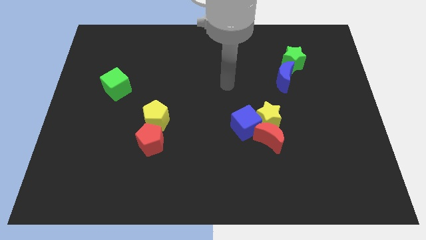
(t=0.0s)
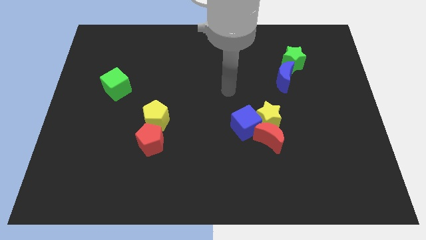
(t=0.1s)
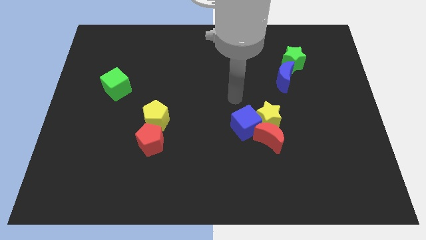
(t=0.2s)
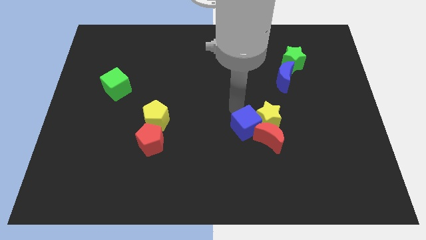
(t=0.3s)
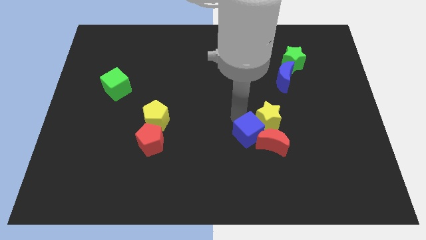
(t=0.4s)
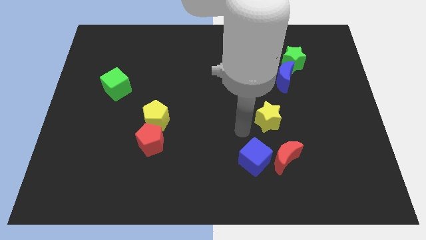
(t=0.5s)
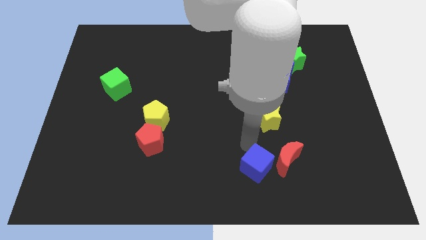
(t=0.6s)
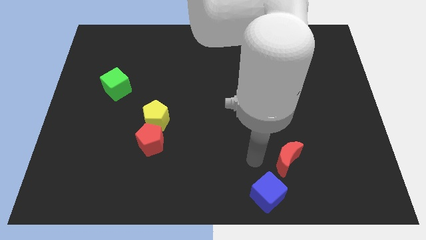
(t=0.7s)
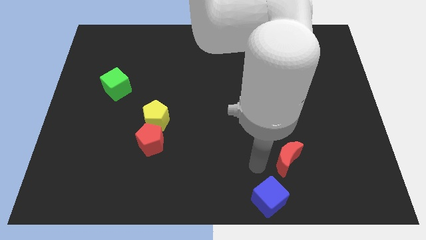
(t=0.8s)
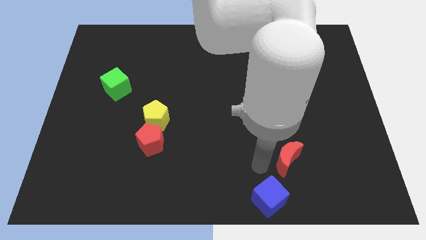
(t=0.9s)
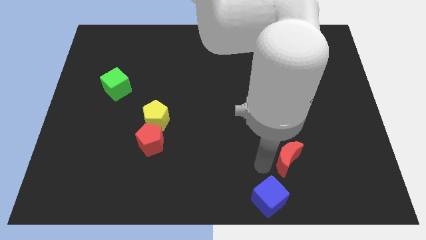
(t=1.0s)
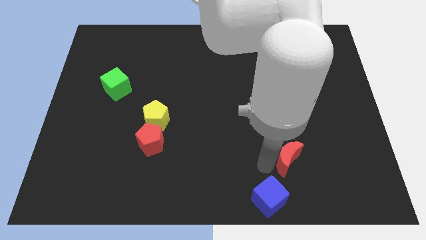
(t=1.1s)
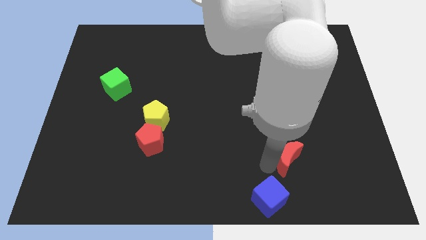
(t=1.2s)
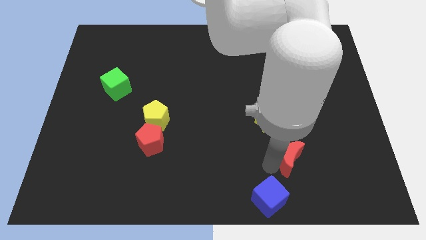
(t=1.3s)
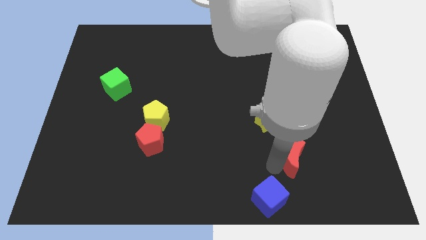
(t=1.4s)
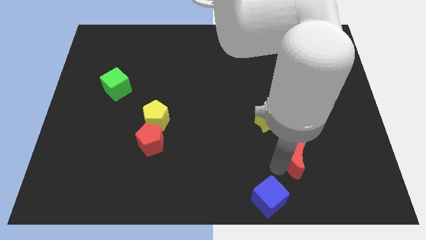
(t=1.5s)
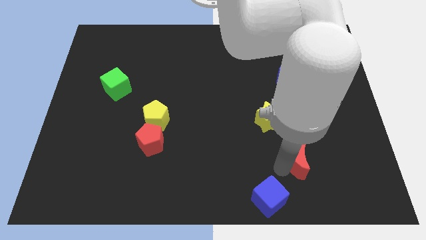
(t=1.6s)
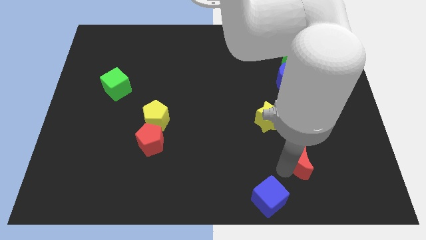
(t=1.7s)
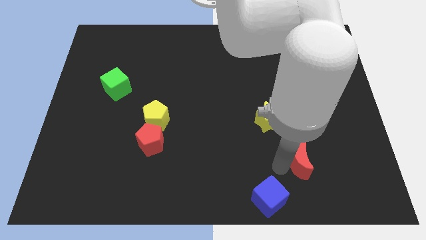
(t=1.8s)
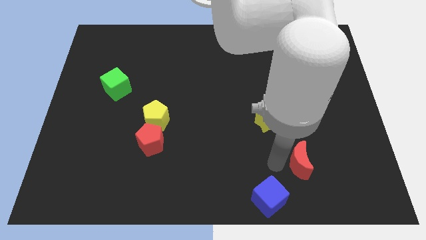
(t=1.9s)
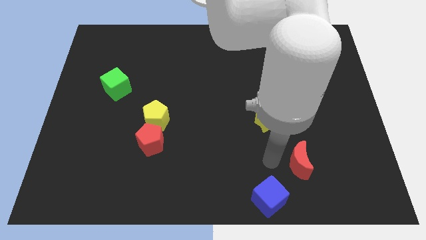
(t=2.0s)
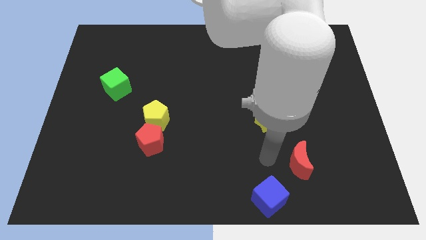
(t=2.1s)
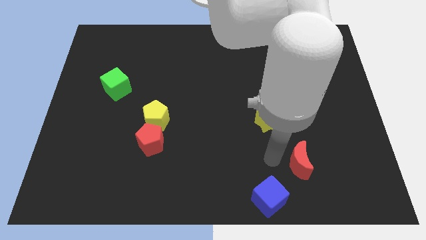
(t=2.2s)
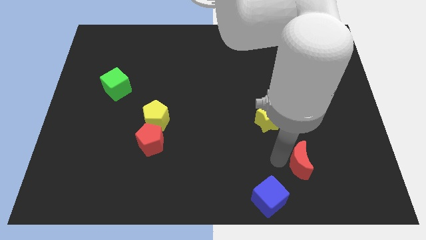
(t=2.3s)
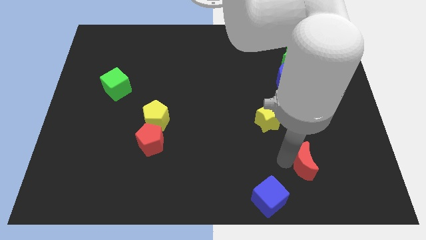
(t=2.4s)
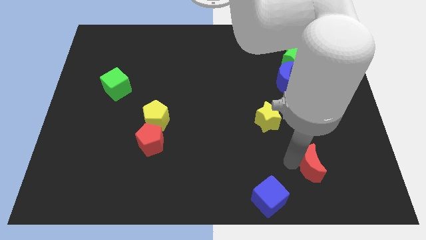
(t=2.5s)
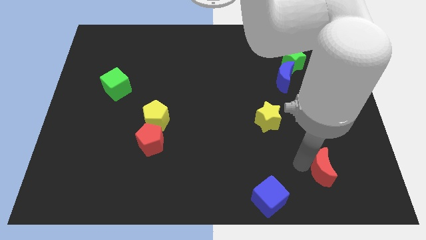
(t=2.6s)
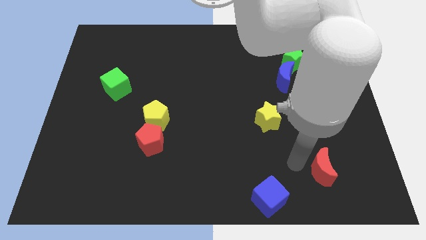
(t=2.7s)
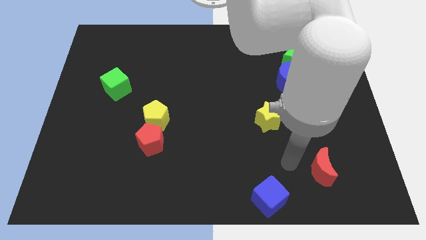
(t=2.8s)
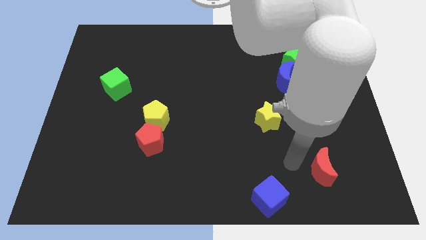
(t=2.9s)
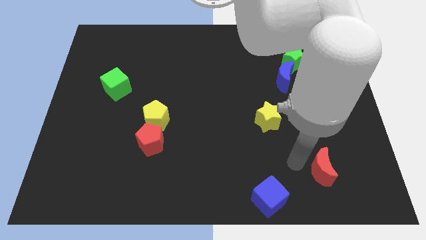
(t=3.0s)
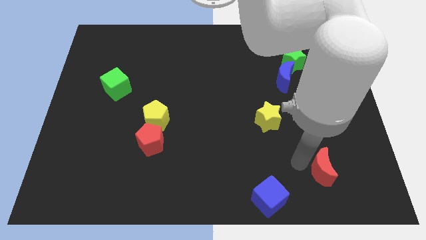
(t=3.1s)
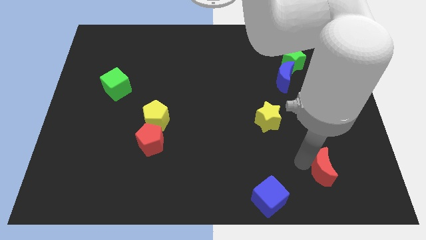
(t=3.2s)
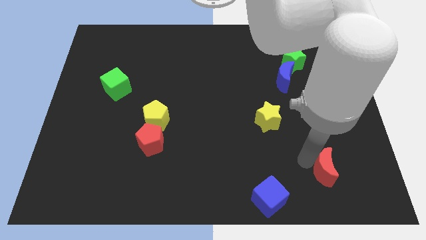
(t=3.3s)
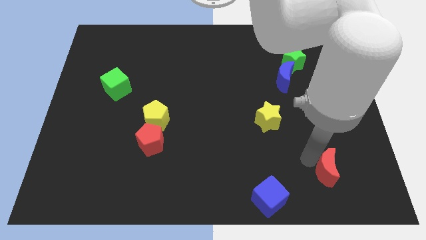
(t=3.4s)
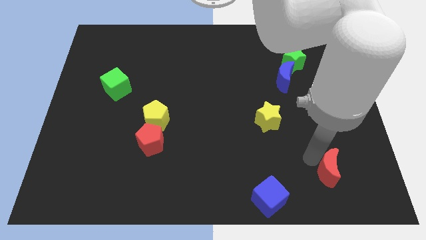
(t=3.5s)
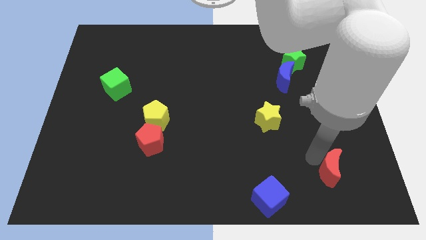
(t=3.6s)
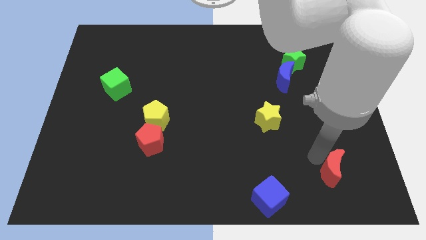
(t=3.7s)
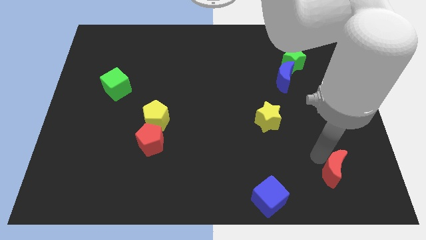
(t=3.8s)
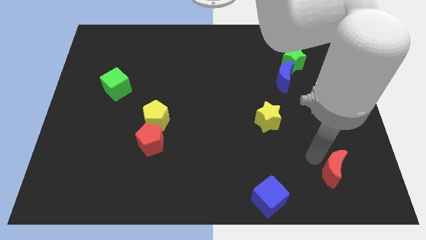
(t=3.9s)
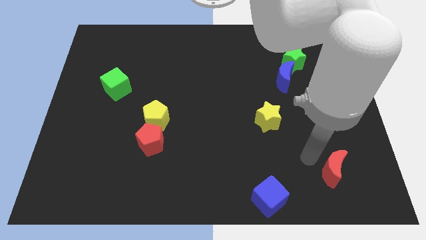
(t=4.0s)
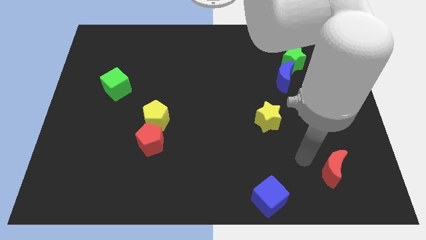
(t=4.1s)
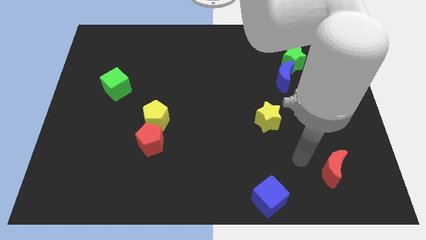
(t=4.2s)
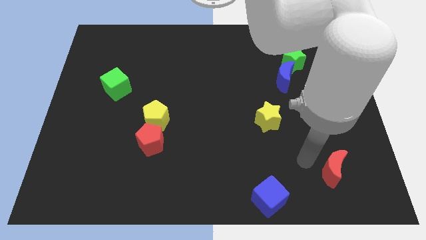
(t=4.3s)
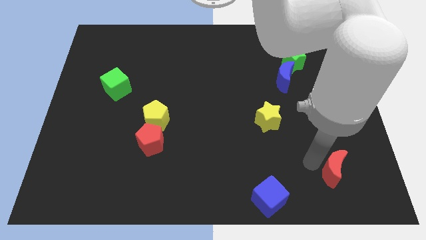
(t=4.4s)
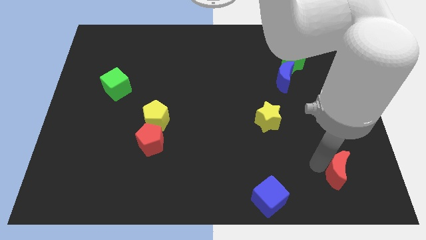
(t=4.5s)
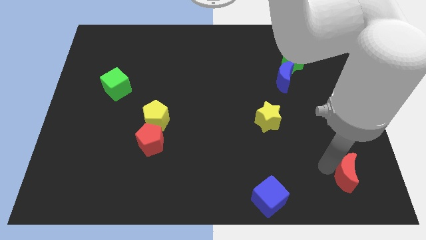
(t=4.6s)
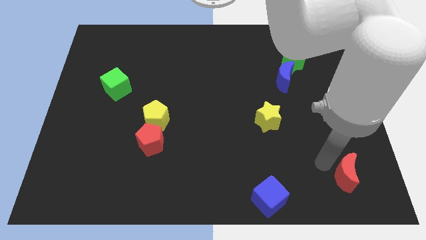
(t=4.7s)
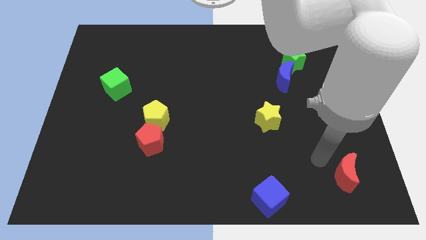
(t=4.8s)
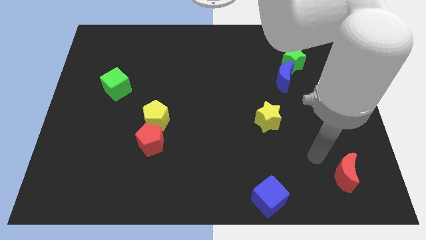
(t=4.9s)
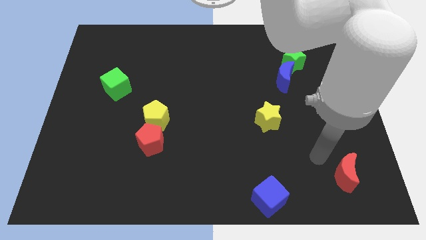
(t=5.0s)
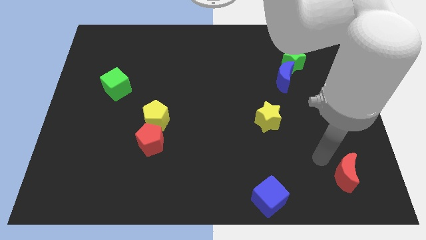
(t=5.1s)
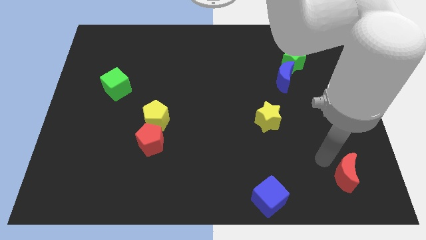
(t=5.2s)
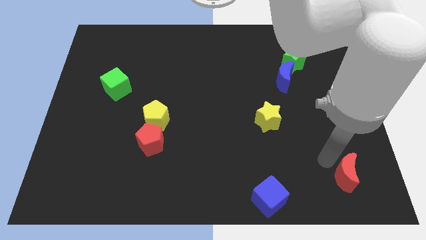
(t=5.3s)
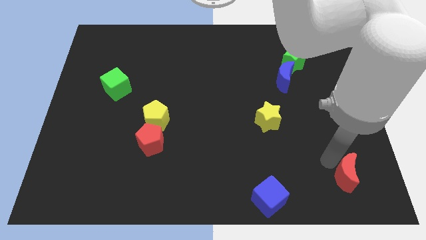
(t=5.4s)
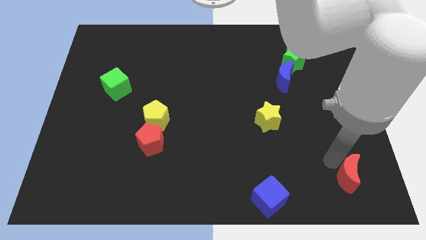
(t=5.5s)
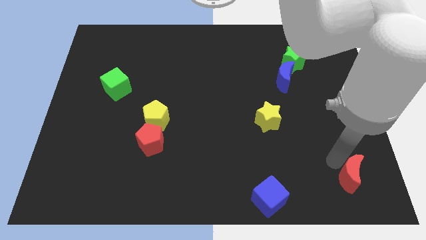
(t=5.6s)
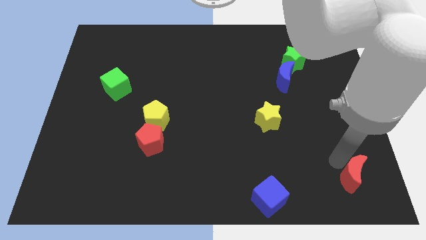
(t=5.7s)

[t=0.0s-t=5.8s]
push the red moon to the bottom right

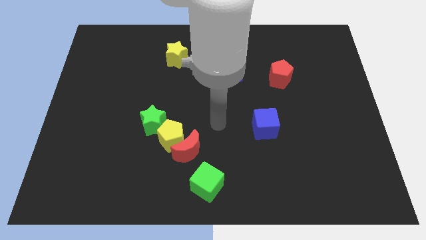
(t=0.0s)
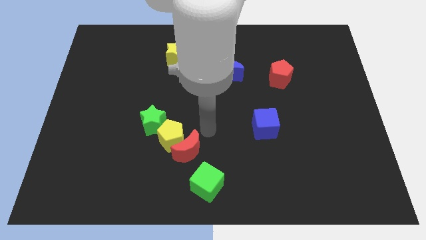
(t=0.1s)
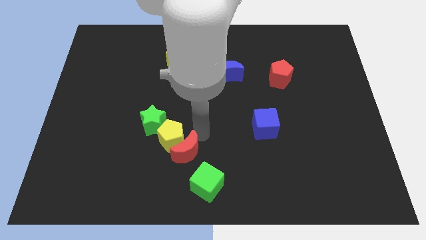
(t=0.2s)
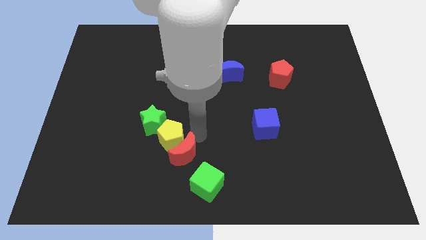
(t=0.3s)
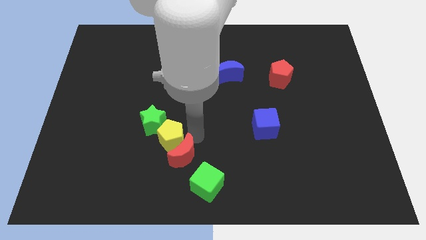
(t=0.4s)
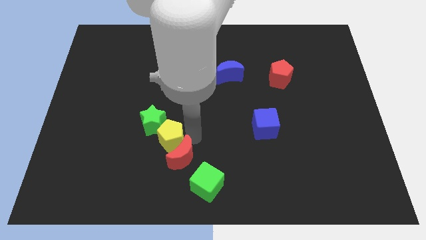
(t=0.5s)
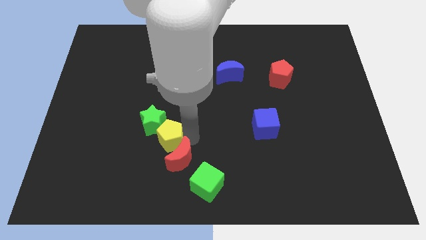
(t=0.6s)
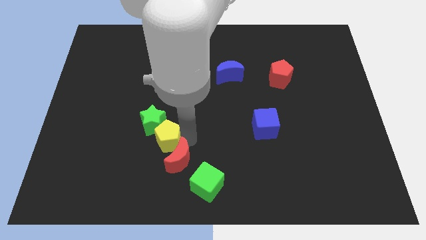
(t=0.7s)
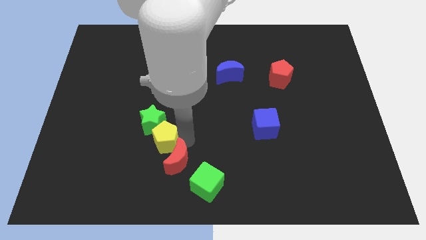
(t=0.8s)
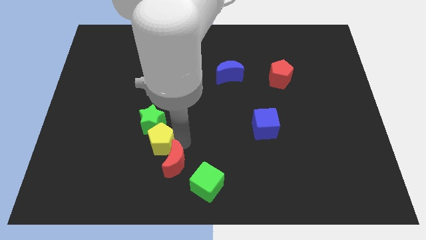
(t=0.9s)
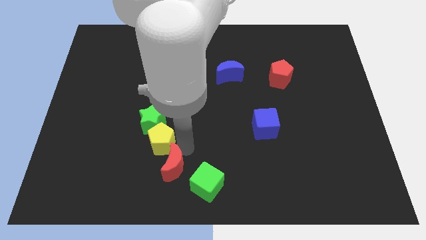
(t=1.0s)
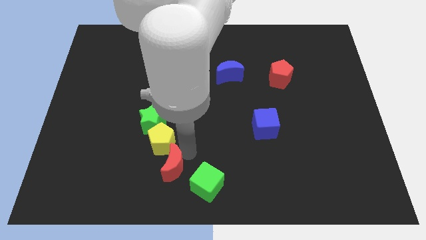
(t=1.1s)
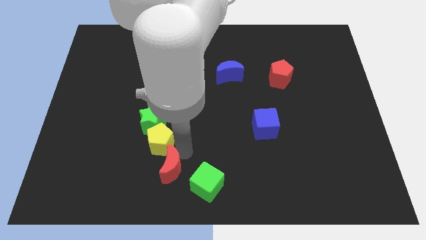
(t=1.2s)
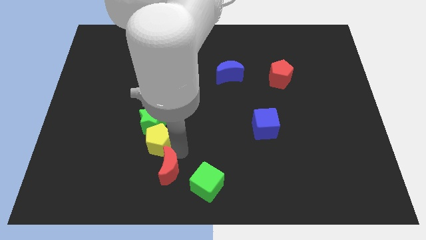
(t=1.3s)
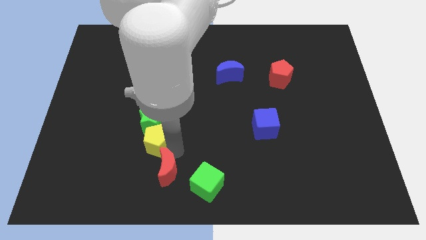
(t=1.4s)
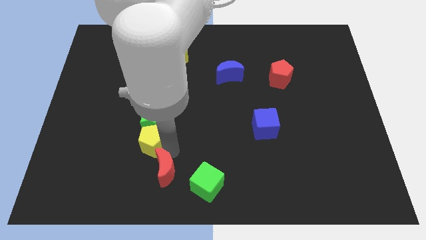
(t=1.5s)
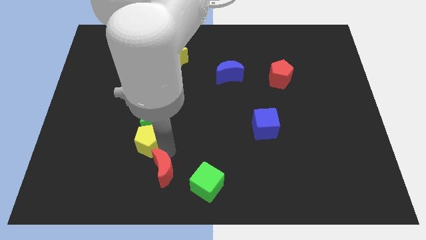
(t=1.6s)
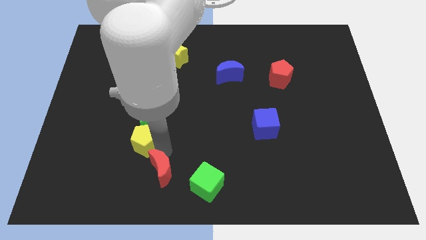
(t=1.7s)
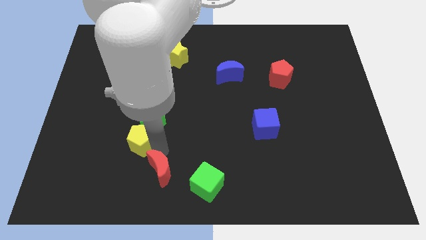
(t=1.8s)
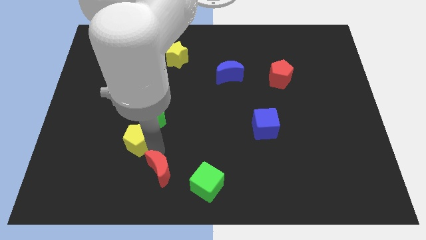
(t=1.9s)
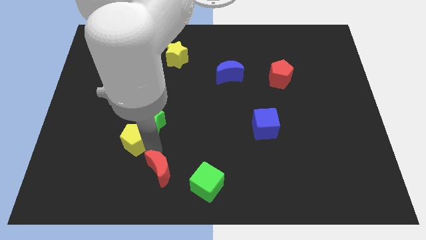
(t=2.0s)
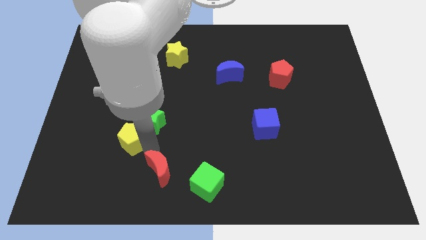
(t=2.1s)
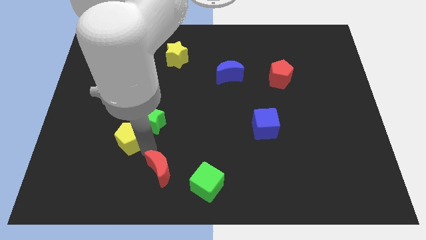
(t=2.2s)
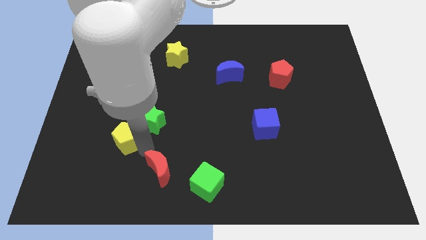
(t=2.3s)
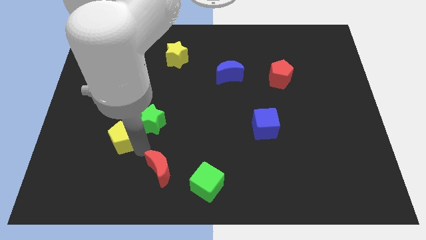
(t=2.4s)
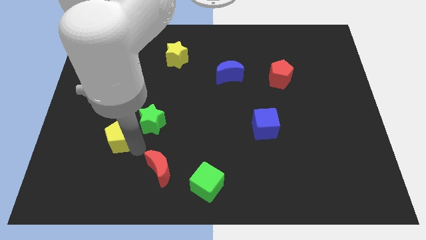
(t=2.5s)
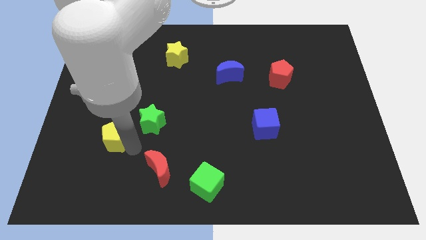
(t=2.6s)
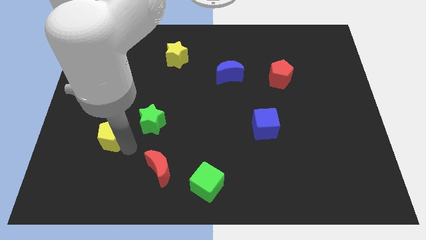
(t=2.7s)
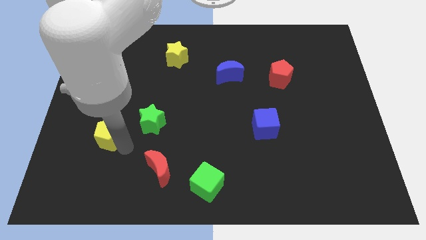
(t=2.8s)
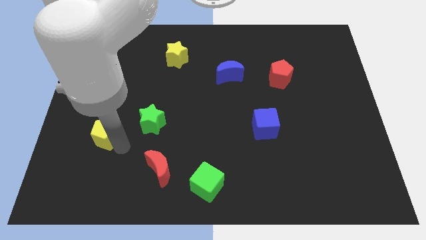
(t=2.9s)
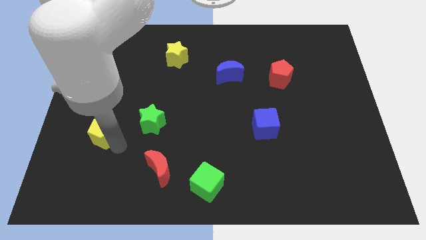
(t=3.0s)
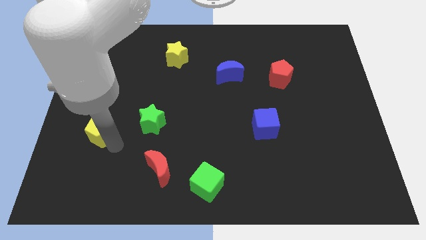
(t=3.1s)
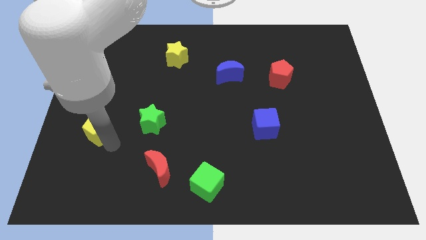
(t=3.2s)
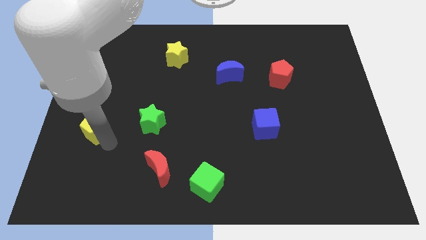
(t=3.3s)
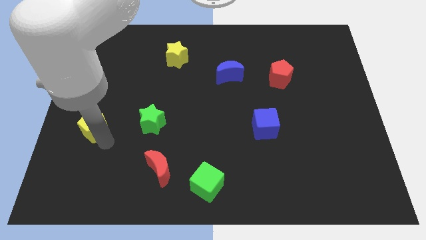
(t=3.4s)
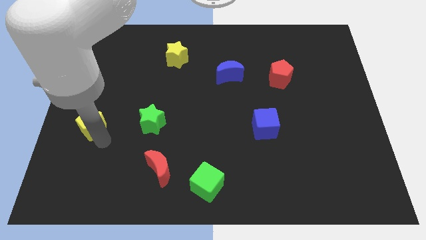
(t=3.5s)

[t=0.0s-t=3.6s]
slide the yellow pentagon to the center left
